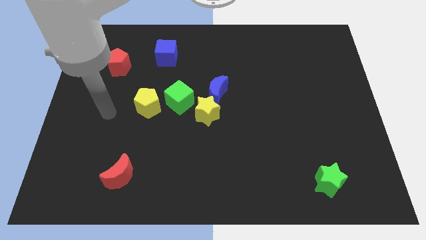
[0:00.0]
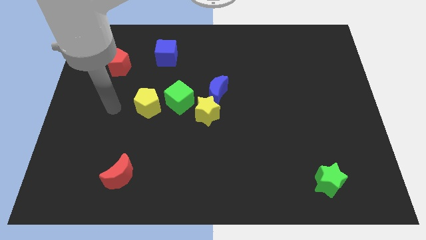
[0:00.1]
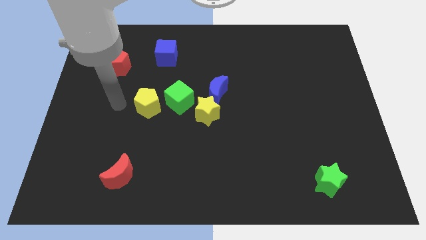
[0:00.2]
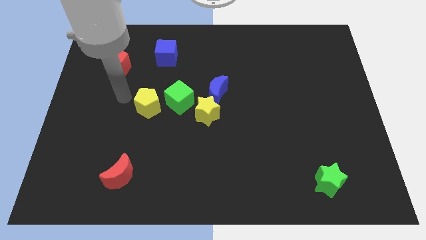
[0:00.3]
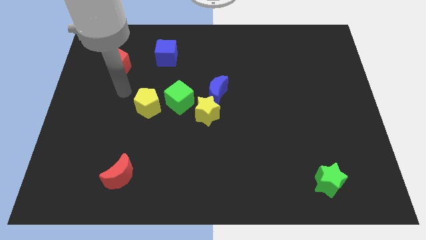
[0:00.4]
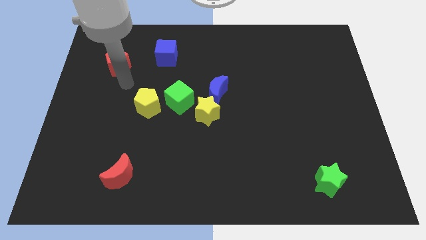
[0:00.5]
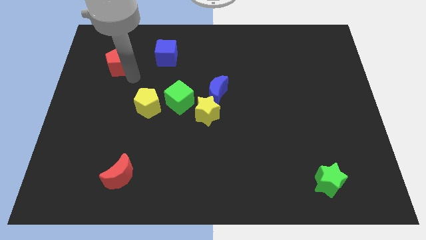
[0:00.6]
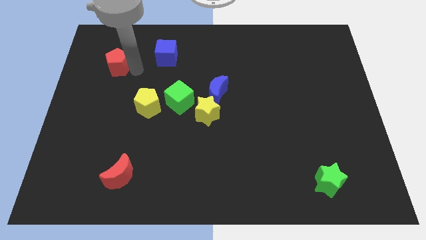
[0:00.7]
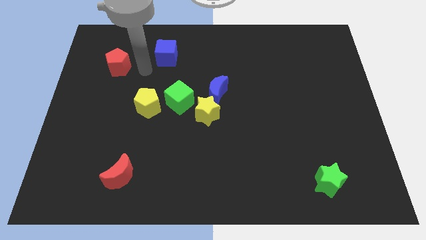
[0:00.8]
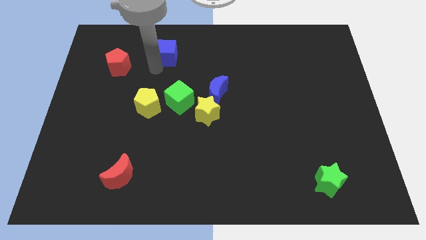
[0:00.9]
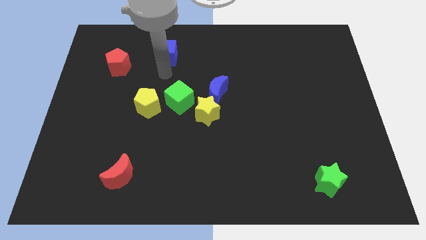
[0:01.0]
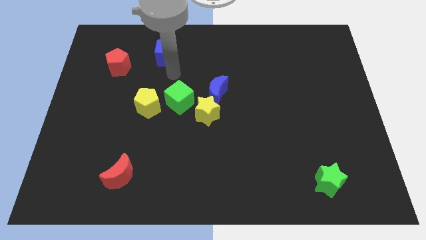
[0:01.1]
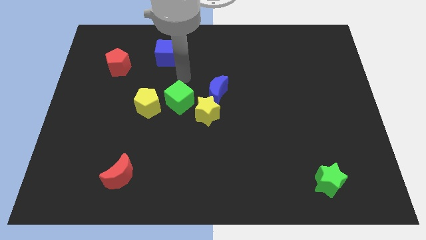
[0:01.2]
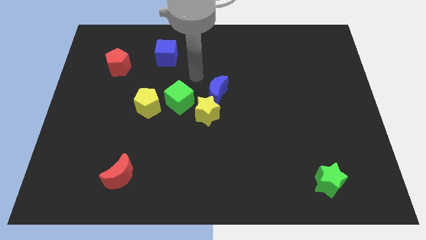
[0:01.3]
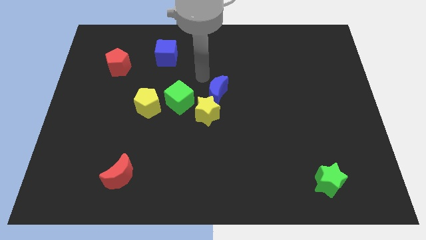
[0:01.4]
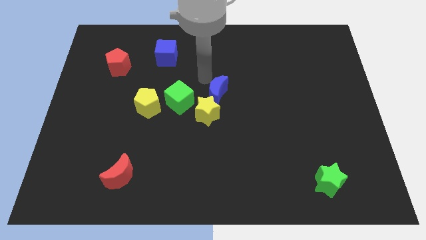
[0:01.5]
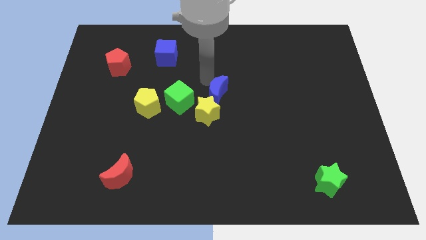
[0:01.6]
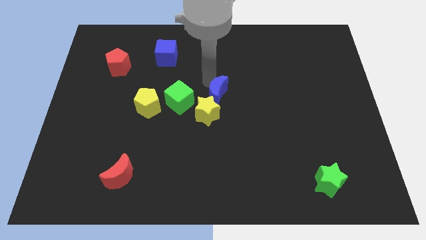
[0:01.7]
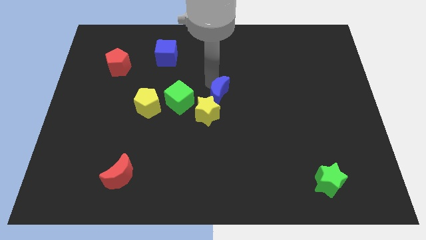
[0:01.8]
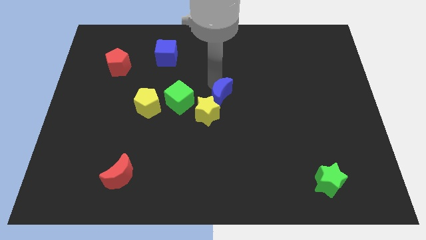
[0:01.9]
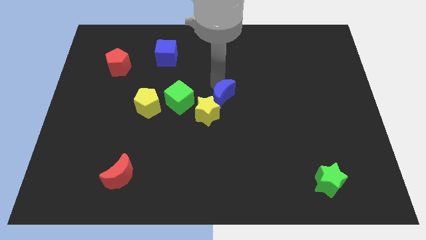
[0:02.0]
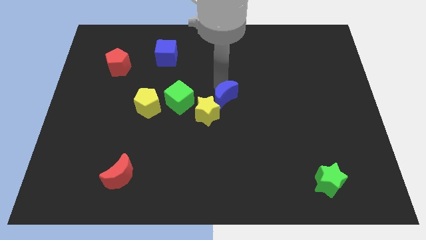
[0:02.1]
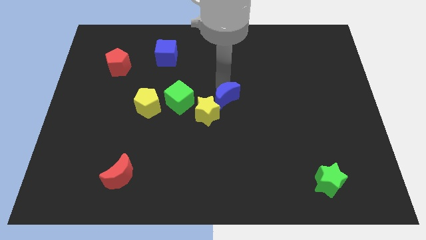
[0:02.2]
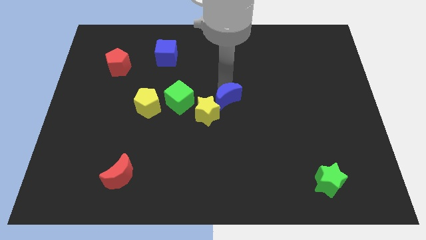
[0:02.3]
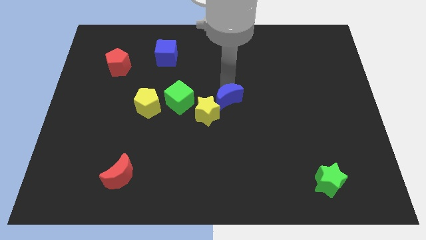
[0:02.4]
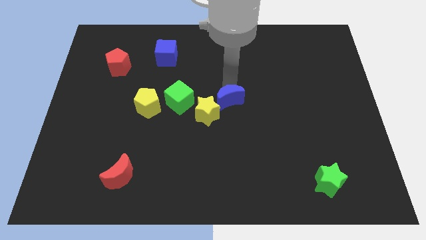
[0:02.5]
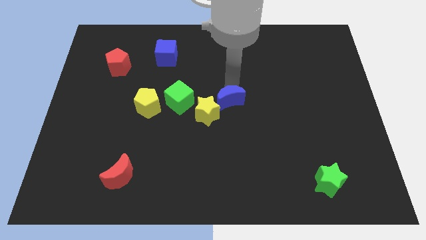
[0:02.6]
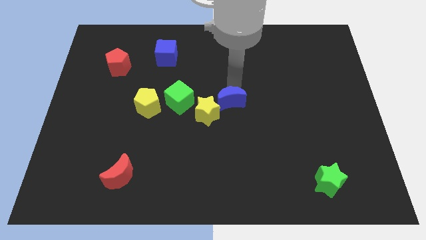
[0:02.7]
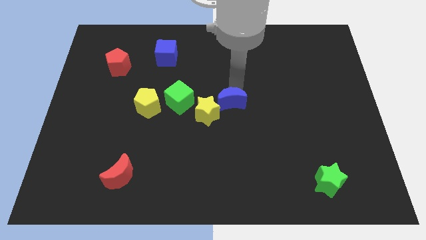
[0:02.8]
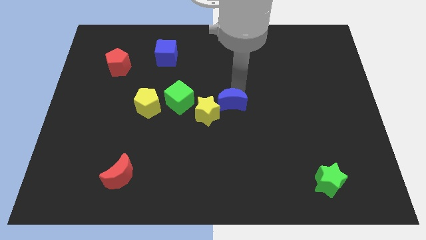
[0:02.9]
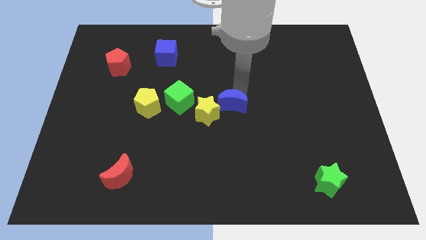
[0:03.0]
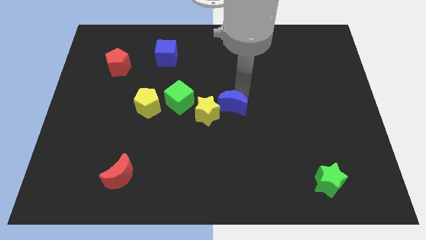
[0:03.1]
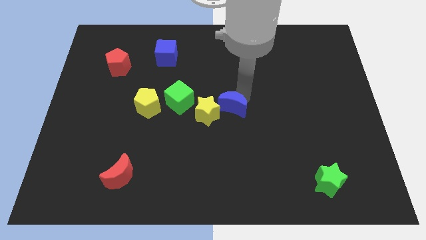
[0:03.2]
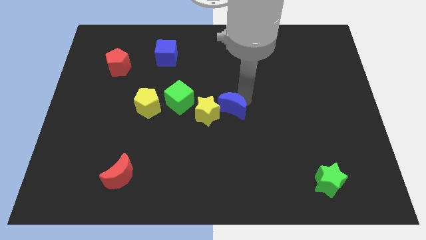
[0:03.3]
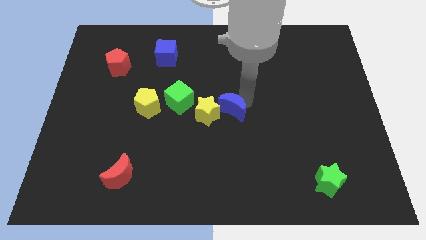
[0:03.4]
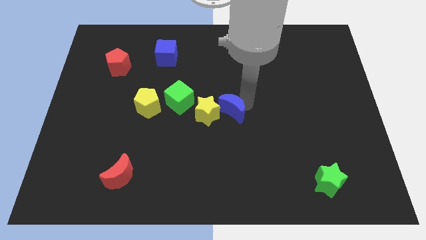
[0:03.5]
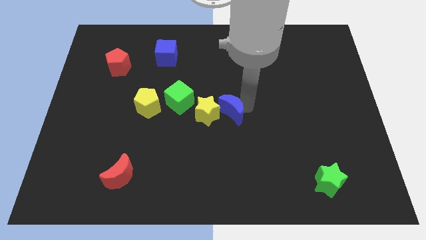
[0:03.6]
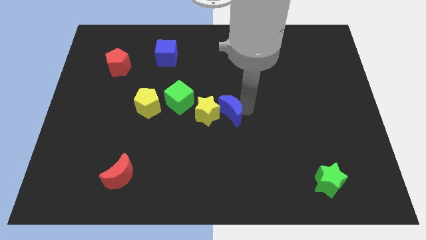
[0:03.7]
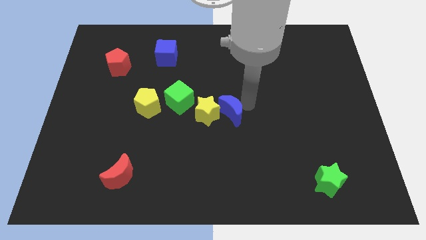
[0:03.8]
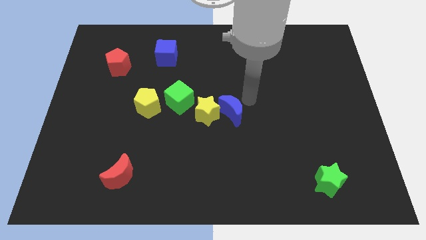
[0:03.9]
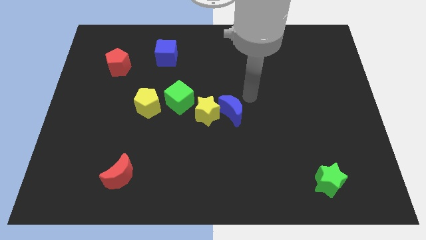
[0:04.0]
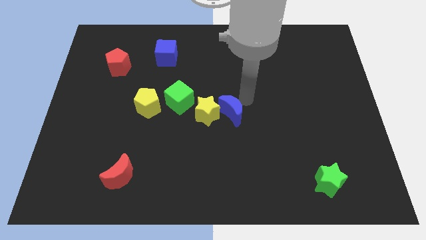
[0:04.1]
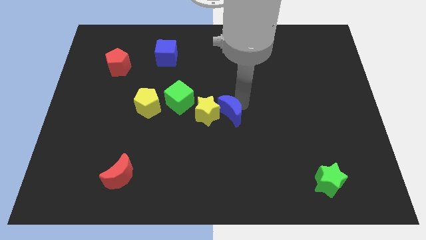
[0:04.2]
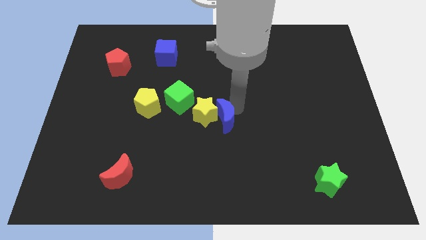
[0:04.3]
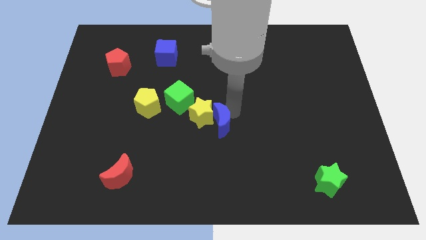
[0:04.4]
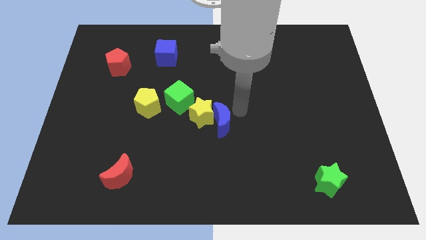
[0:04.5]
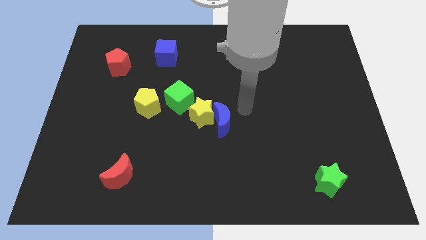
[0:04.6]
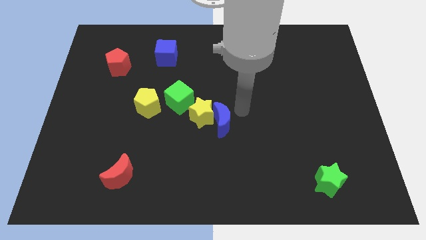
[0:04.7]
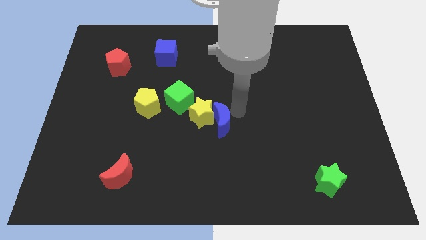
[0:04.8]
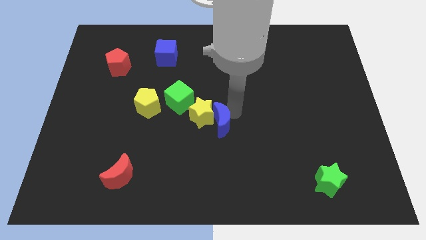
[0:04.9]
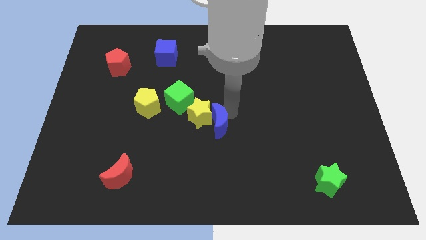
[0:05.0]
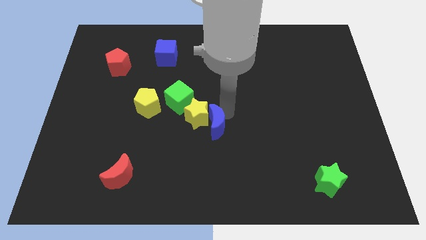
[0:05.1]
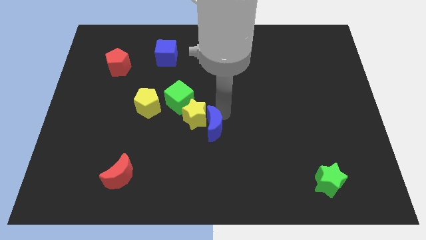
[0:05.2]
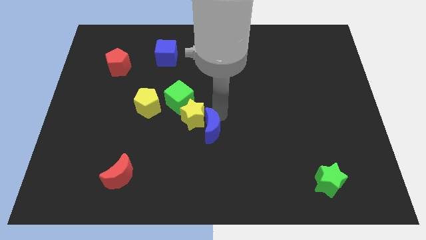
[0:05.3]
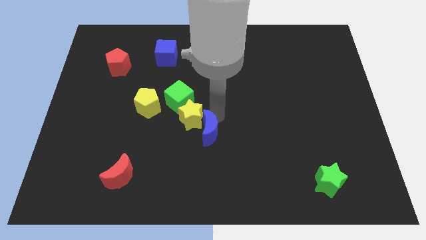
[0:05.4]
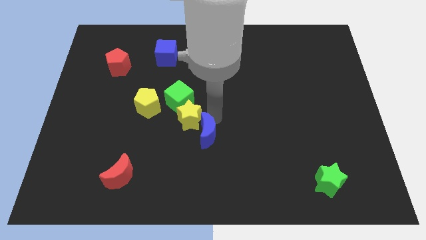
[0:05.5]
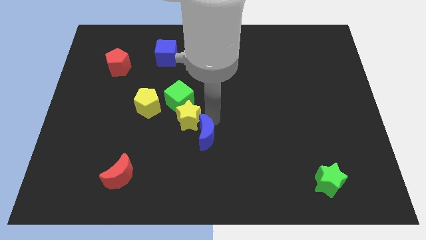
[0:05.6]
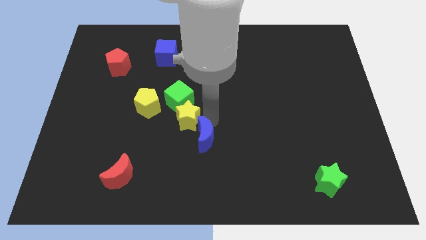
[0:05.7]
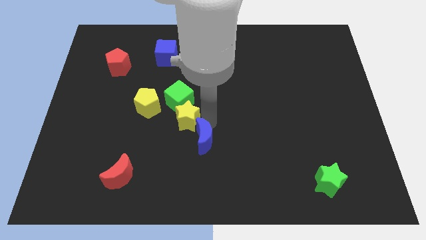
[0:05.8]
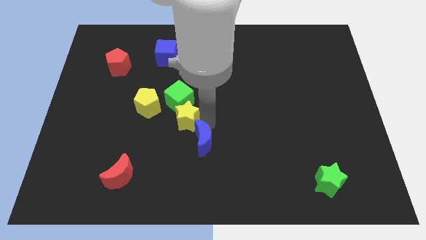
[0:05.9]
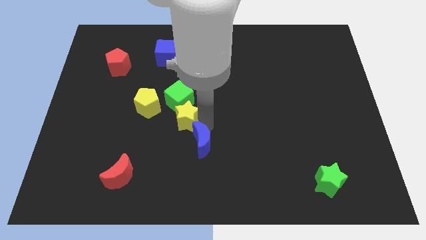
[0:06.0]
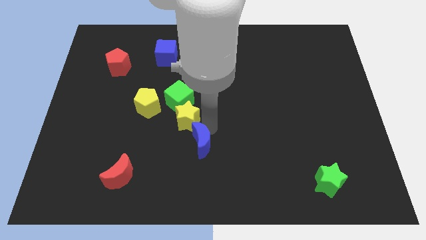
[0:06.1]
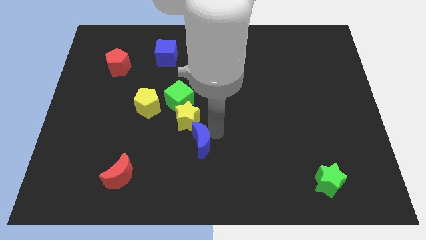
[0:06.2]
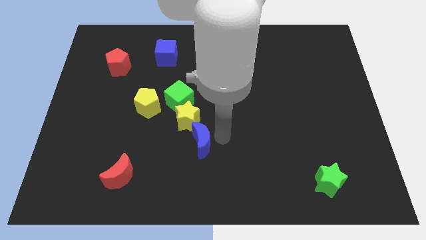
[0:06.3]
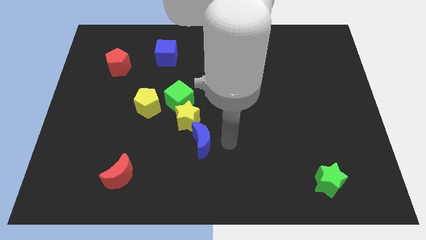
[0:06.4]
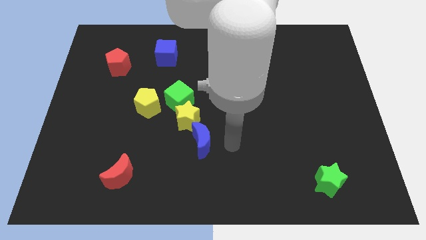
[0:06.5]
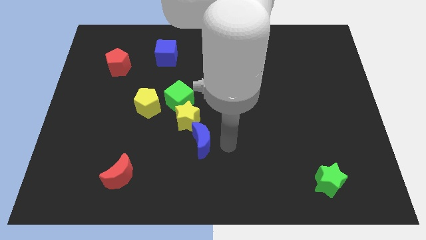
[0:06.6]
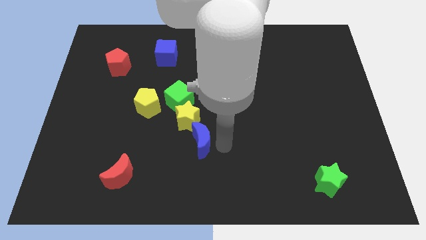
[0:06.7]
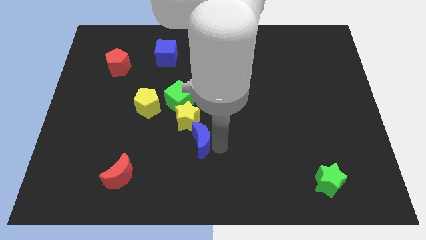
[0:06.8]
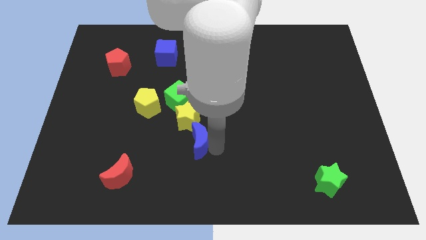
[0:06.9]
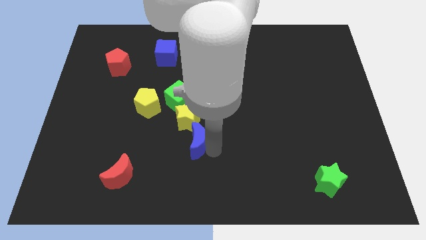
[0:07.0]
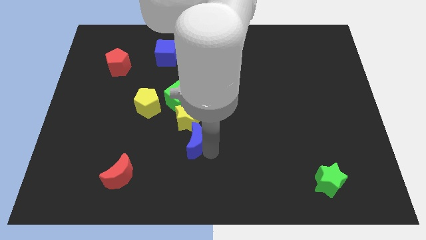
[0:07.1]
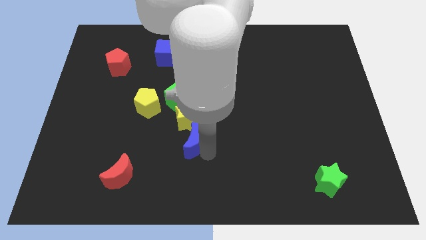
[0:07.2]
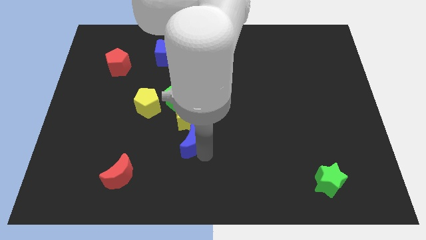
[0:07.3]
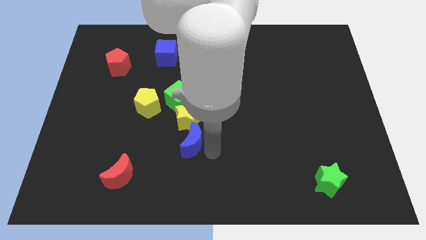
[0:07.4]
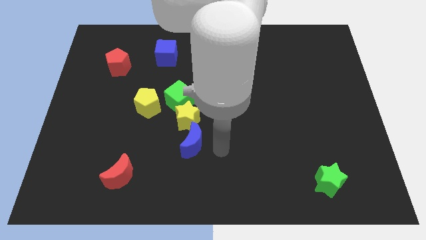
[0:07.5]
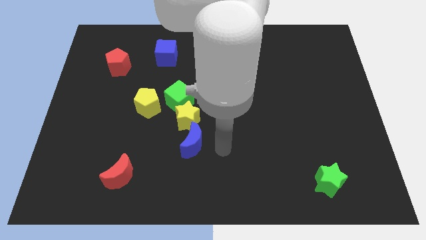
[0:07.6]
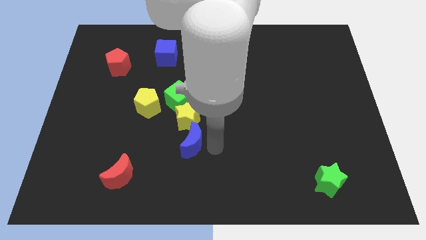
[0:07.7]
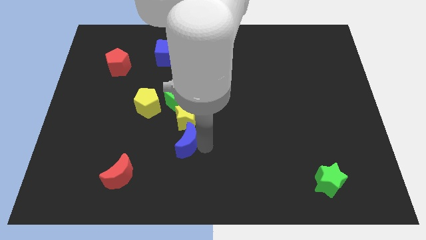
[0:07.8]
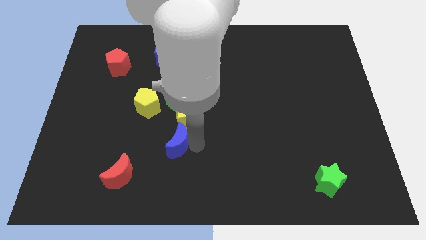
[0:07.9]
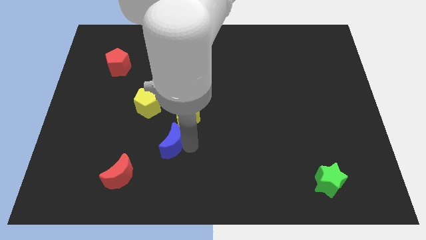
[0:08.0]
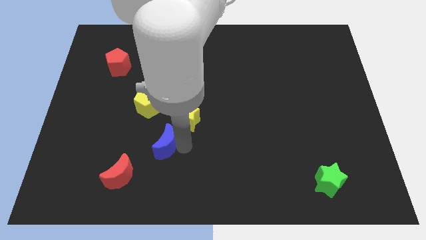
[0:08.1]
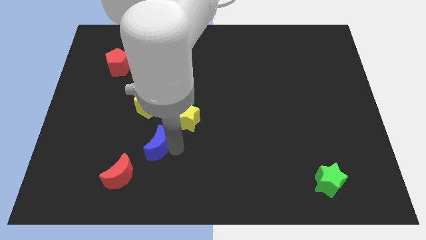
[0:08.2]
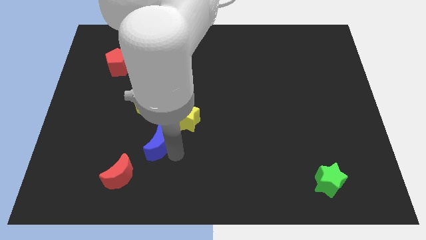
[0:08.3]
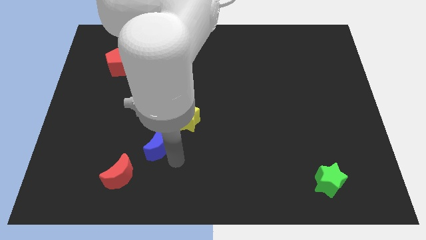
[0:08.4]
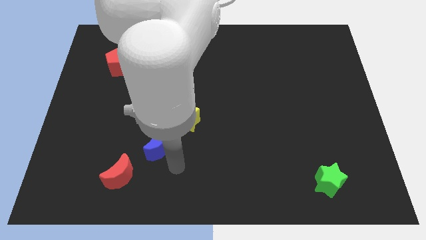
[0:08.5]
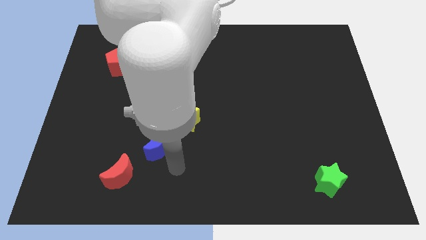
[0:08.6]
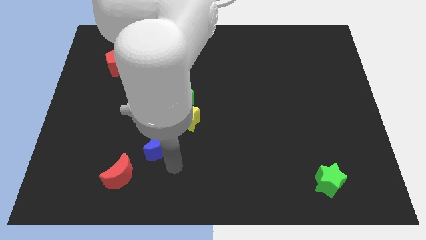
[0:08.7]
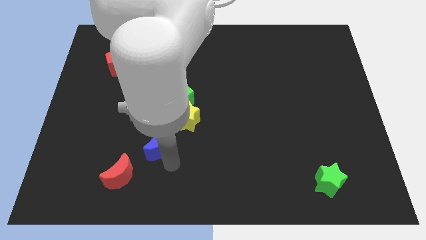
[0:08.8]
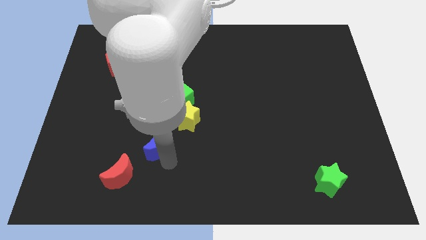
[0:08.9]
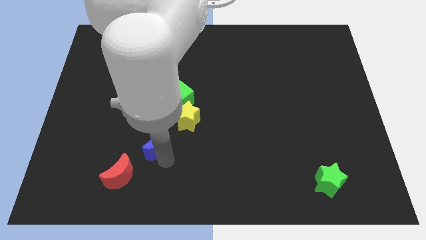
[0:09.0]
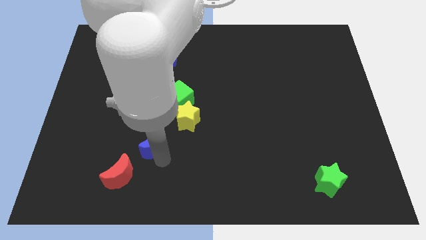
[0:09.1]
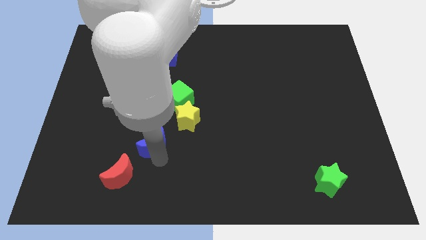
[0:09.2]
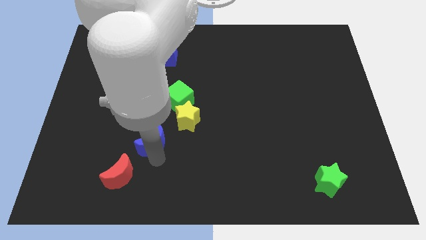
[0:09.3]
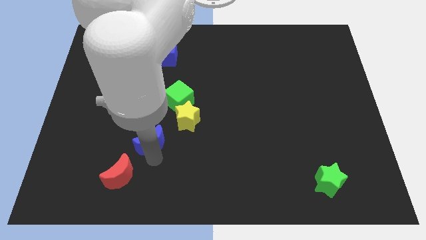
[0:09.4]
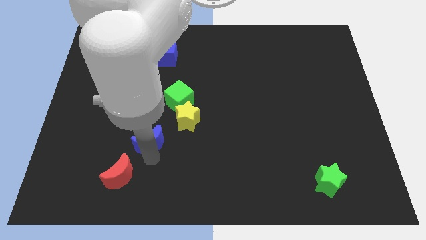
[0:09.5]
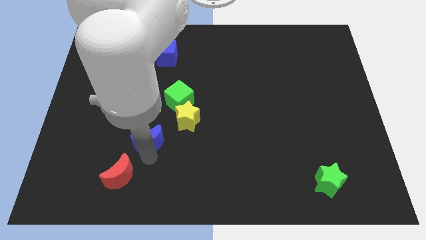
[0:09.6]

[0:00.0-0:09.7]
move the blue moon to the top side of the red moon
